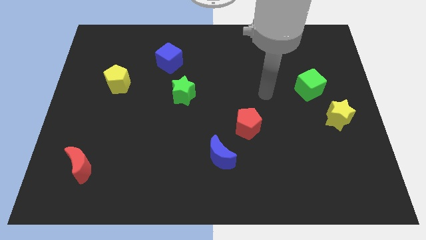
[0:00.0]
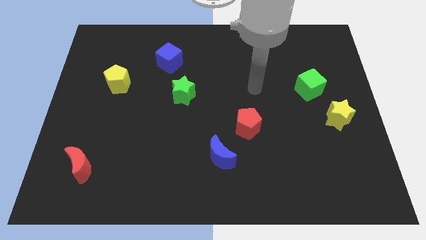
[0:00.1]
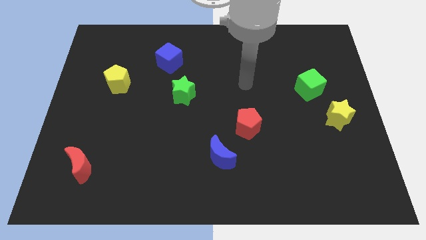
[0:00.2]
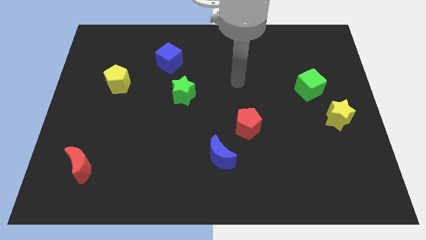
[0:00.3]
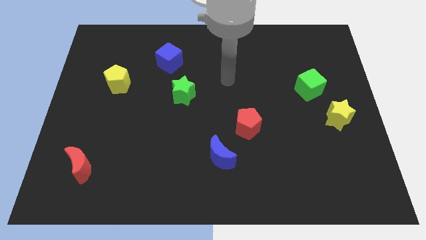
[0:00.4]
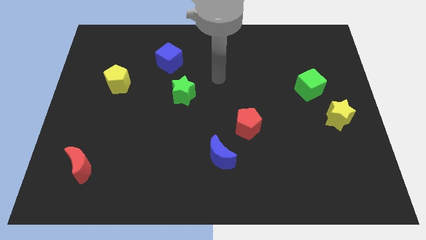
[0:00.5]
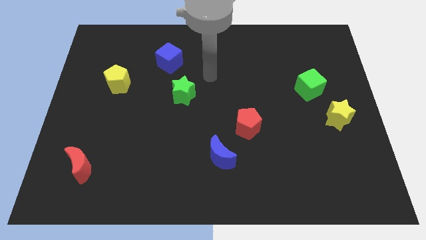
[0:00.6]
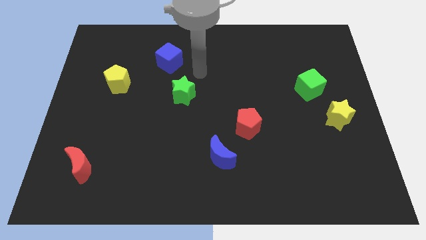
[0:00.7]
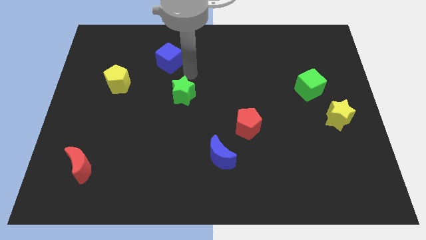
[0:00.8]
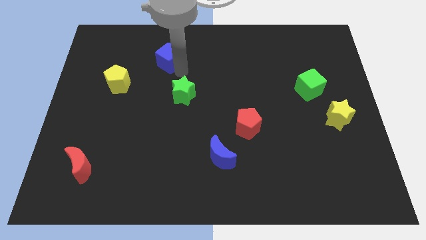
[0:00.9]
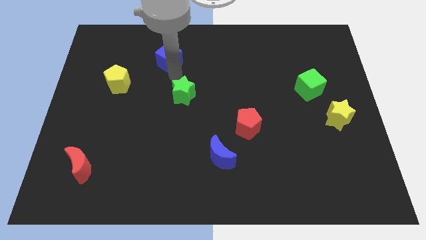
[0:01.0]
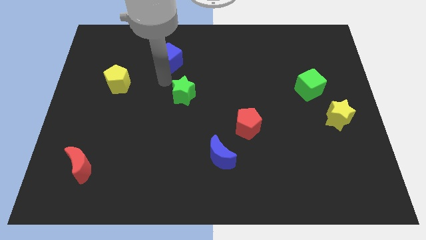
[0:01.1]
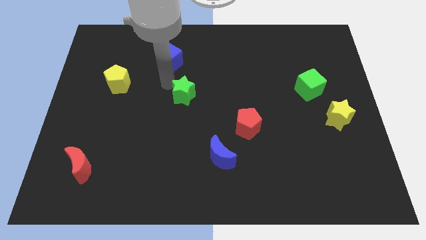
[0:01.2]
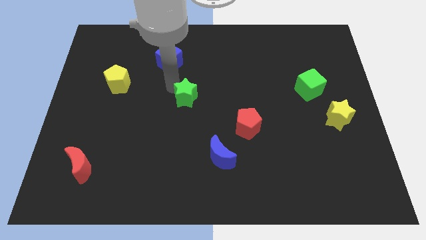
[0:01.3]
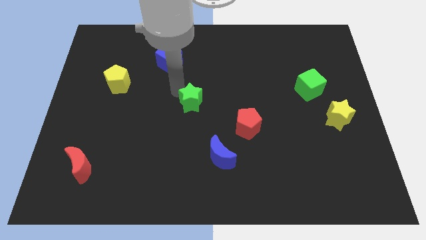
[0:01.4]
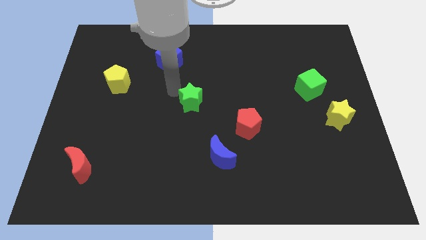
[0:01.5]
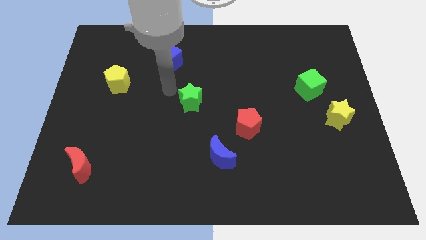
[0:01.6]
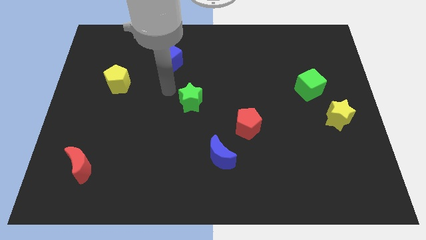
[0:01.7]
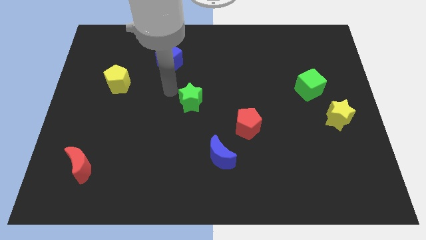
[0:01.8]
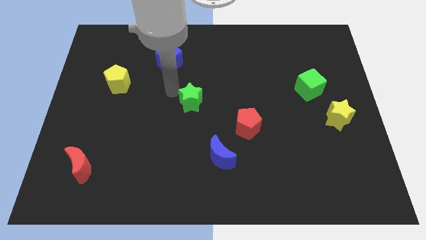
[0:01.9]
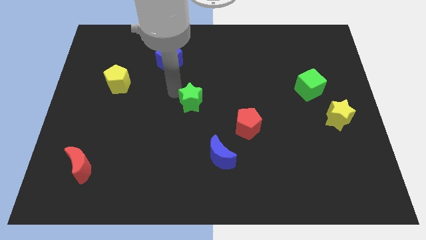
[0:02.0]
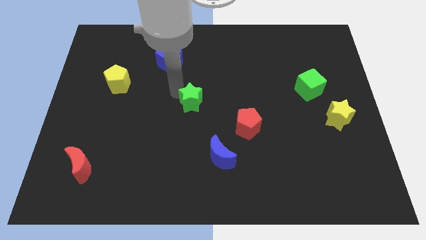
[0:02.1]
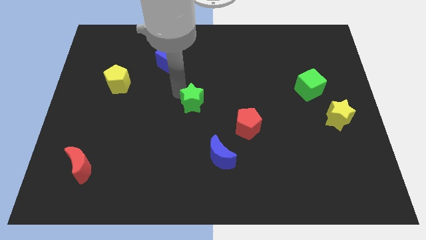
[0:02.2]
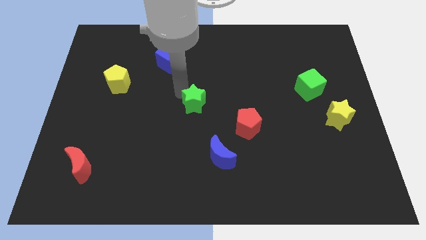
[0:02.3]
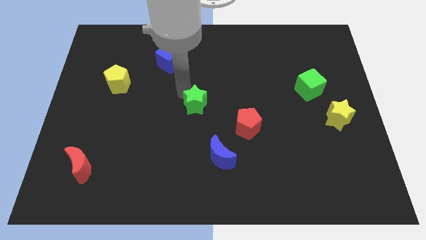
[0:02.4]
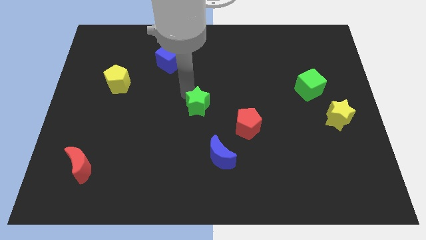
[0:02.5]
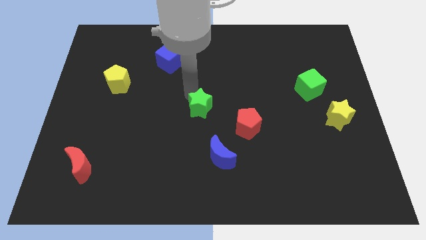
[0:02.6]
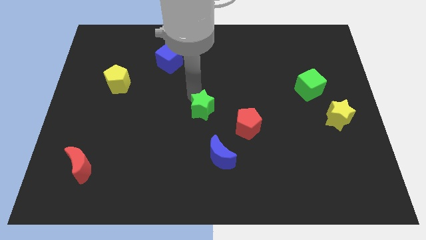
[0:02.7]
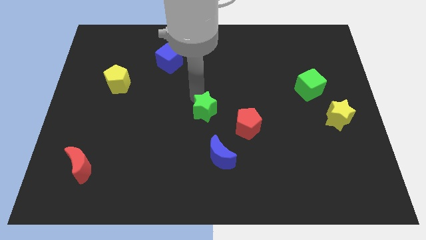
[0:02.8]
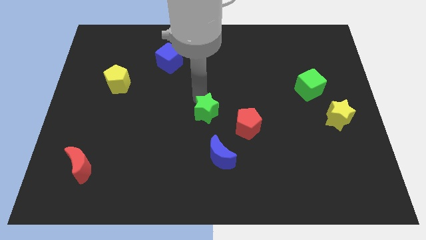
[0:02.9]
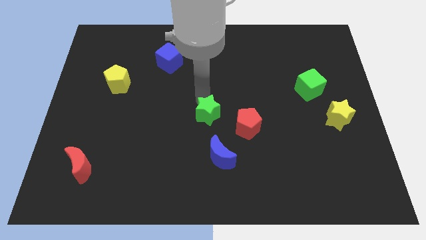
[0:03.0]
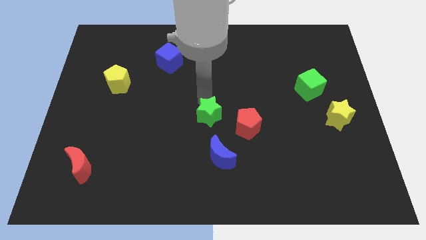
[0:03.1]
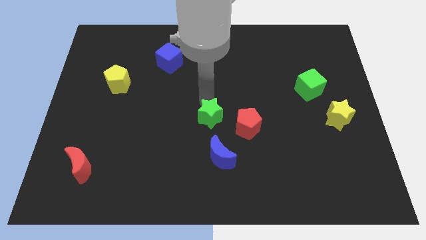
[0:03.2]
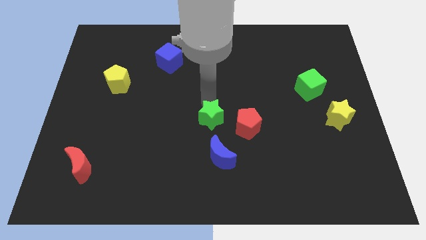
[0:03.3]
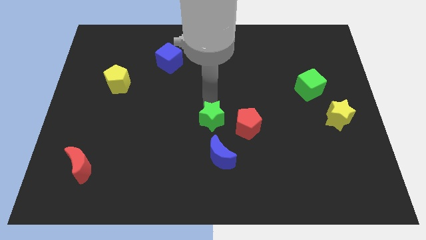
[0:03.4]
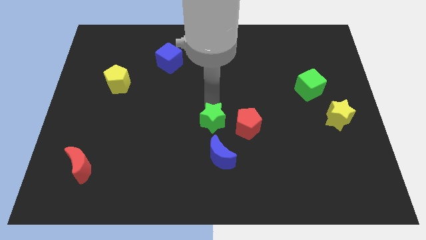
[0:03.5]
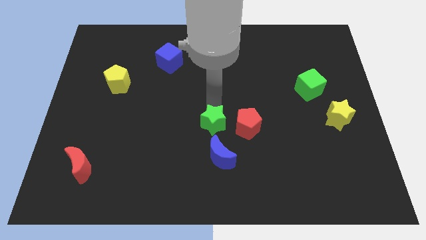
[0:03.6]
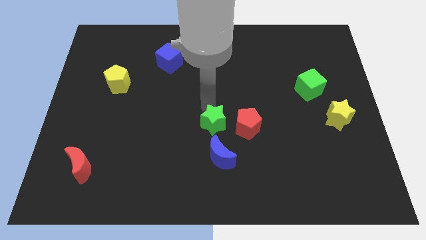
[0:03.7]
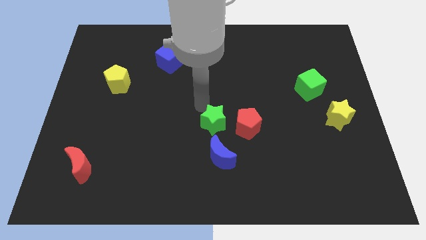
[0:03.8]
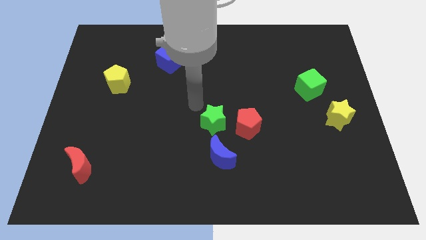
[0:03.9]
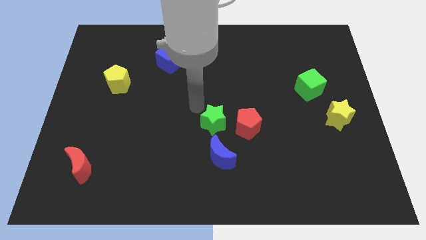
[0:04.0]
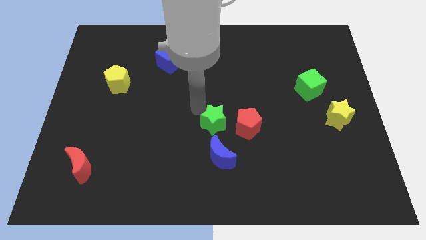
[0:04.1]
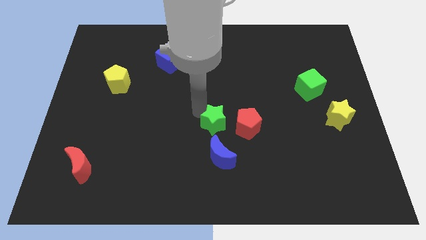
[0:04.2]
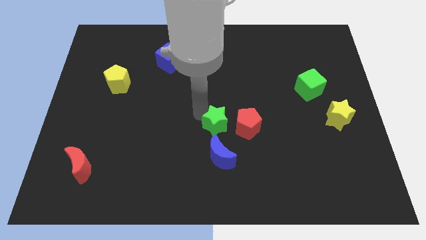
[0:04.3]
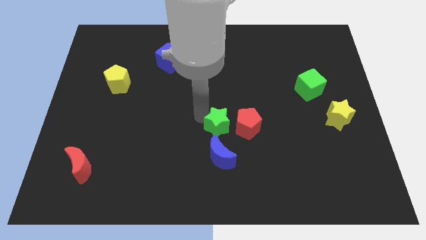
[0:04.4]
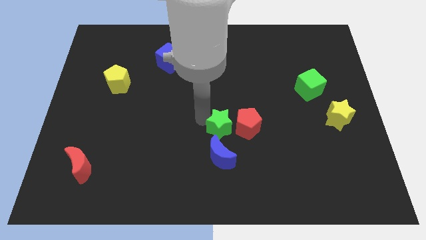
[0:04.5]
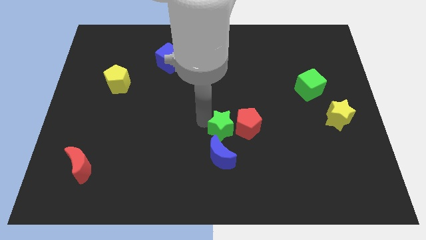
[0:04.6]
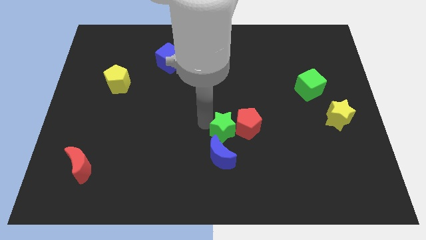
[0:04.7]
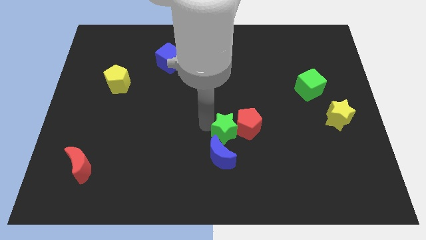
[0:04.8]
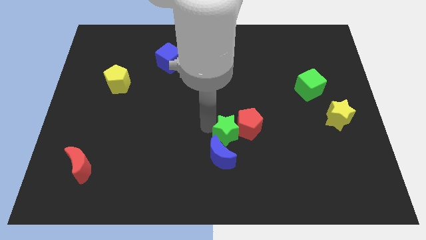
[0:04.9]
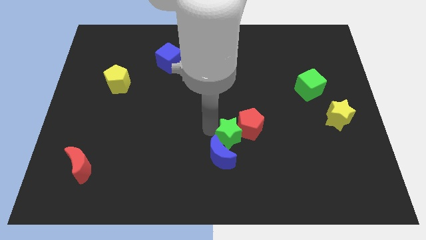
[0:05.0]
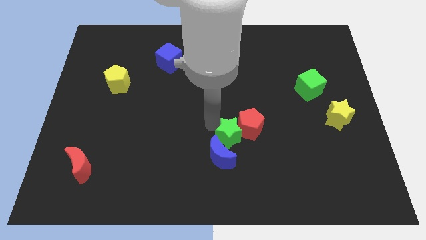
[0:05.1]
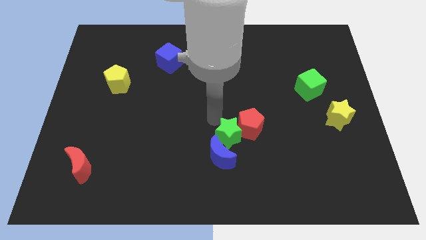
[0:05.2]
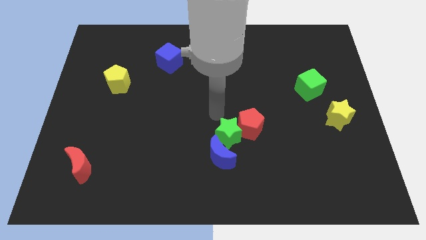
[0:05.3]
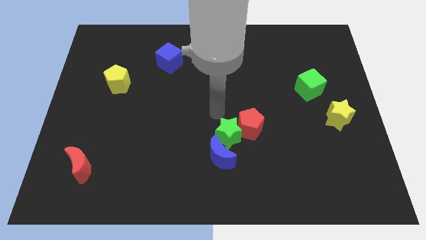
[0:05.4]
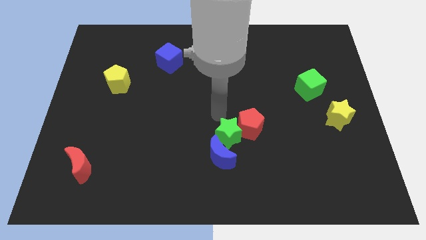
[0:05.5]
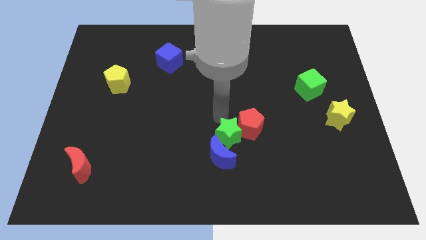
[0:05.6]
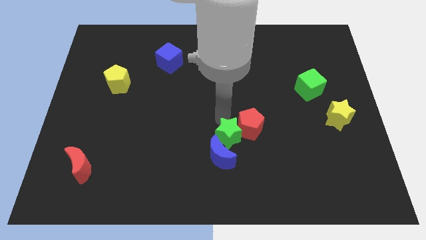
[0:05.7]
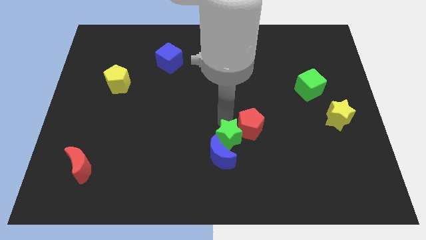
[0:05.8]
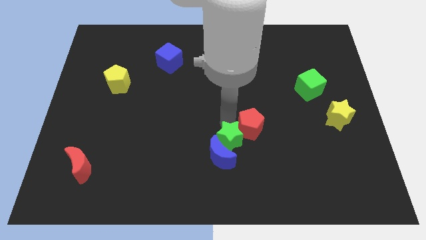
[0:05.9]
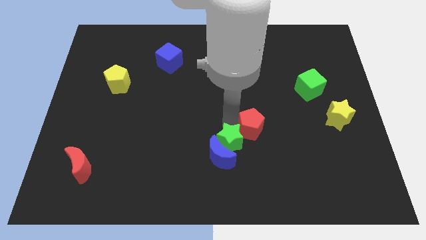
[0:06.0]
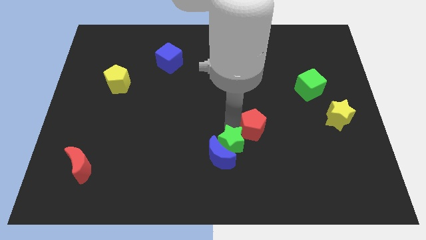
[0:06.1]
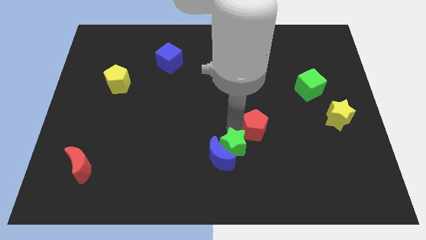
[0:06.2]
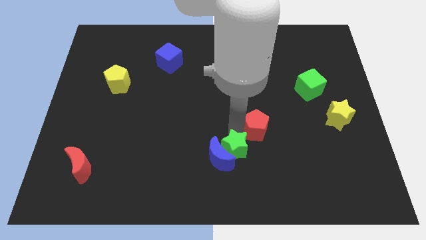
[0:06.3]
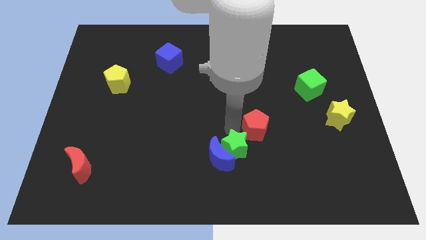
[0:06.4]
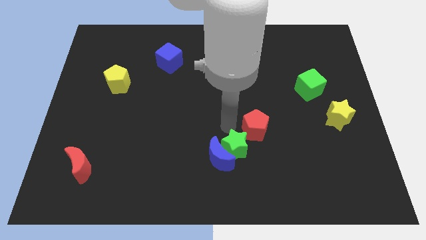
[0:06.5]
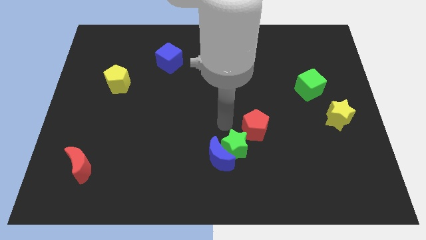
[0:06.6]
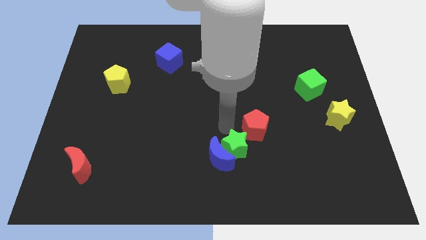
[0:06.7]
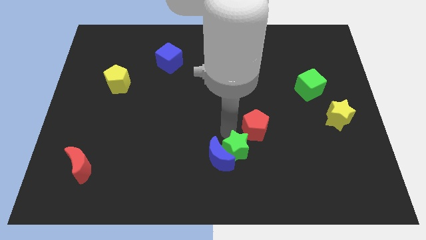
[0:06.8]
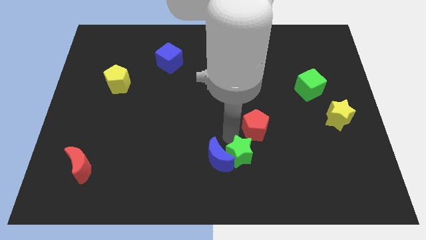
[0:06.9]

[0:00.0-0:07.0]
slide the green star downwards and to the right

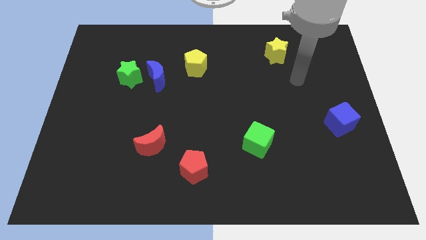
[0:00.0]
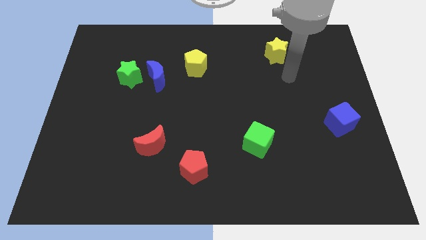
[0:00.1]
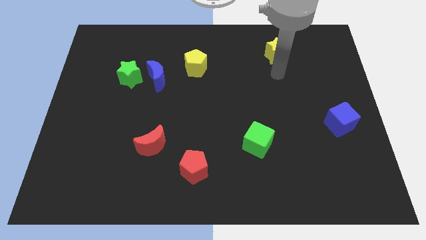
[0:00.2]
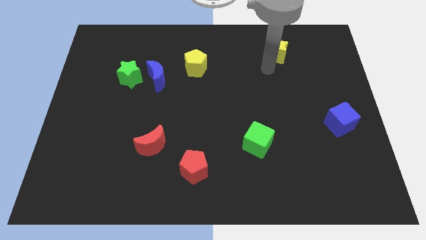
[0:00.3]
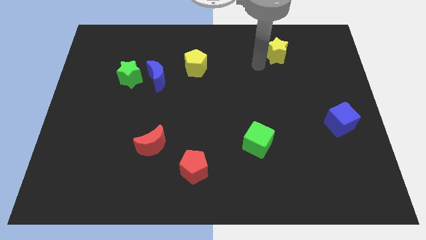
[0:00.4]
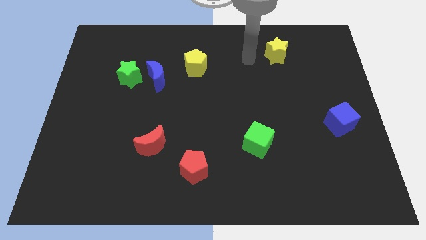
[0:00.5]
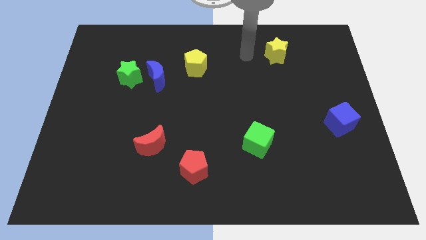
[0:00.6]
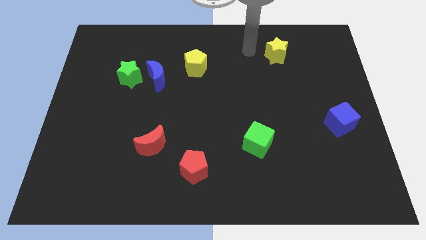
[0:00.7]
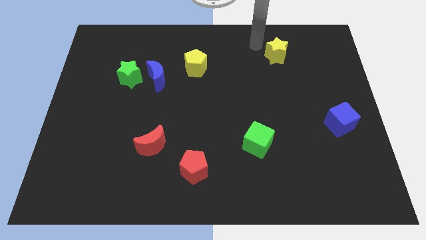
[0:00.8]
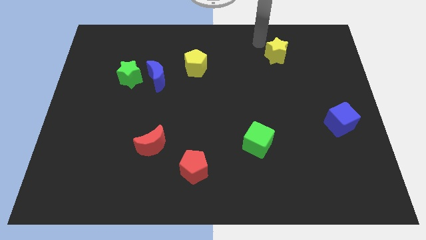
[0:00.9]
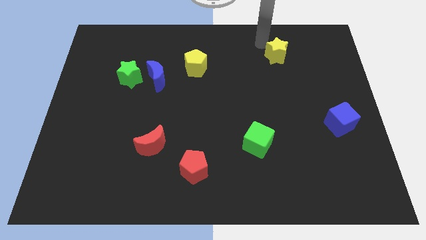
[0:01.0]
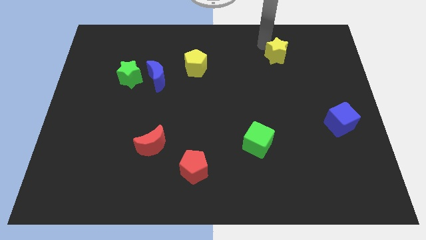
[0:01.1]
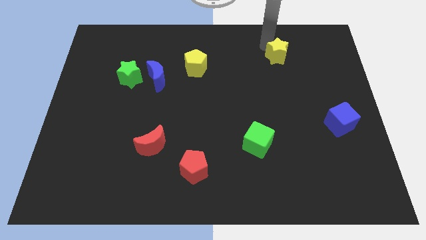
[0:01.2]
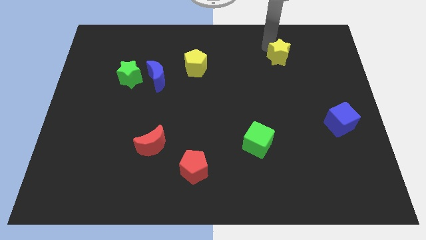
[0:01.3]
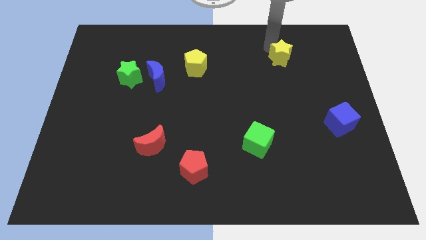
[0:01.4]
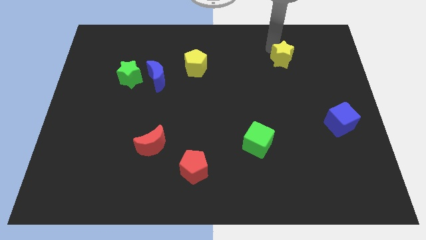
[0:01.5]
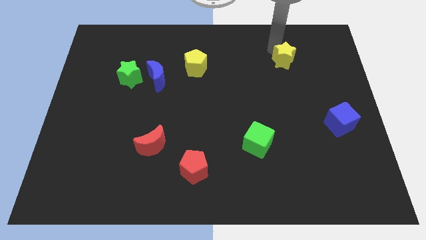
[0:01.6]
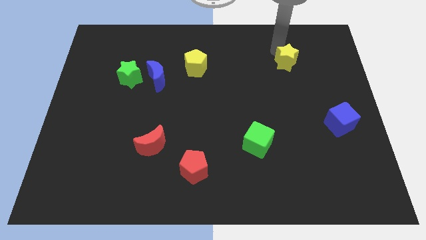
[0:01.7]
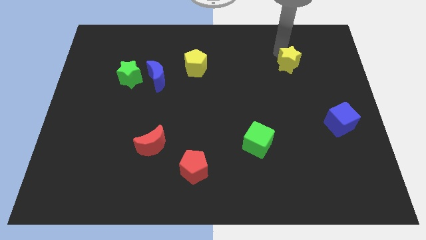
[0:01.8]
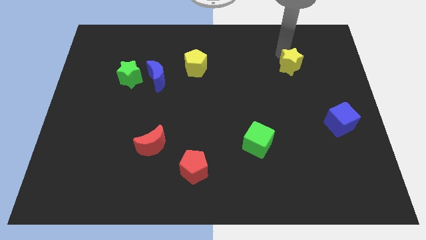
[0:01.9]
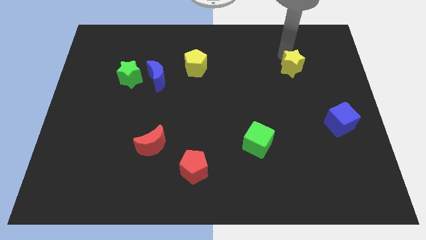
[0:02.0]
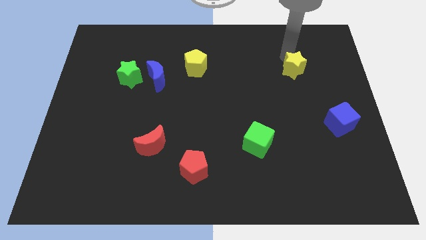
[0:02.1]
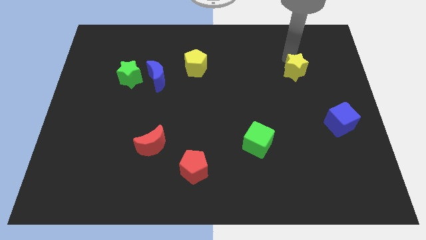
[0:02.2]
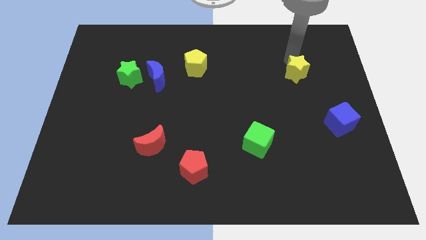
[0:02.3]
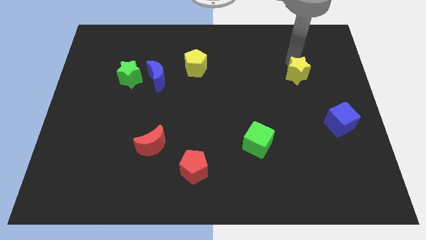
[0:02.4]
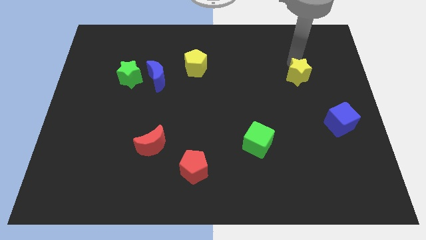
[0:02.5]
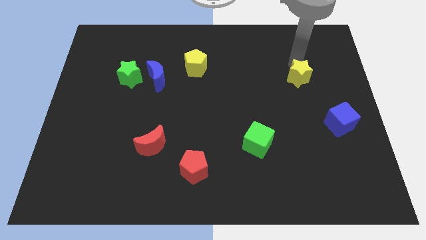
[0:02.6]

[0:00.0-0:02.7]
slide the yellow star a little bit down
